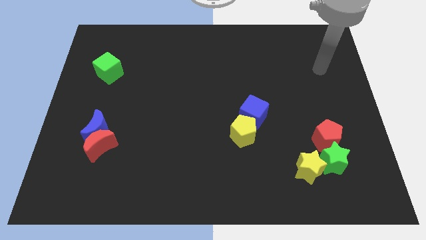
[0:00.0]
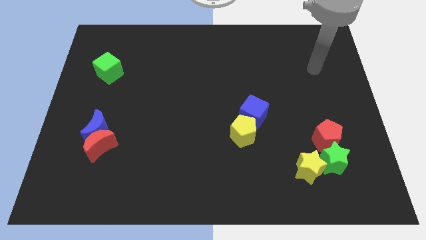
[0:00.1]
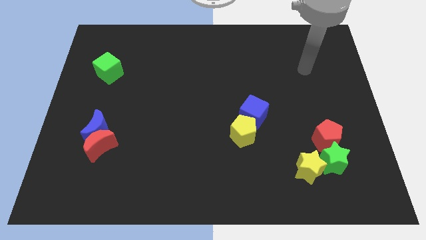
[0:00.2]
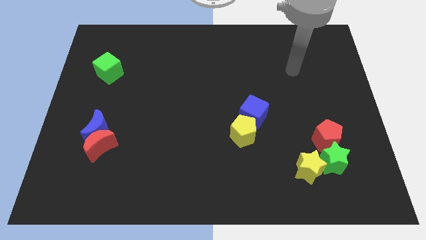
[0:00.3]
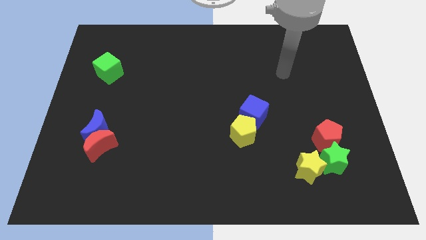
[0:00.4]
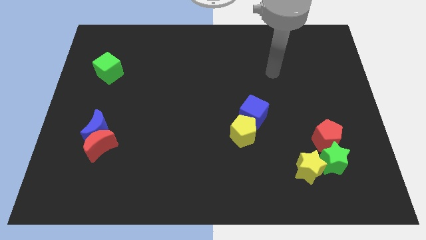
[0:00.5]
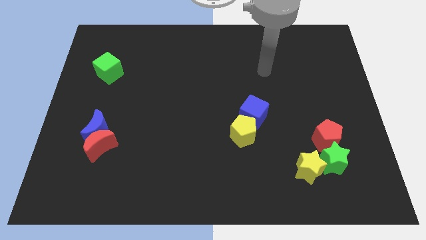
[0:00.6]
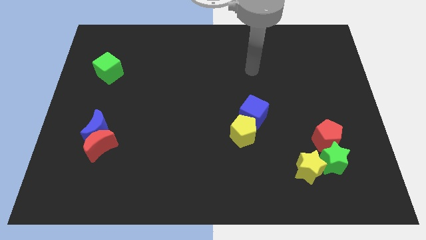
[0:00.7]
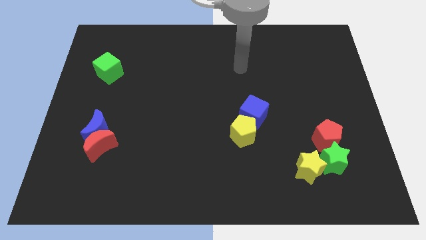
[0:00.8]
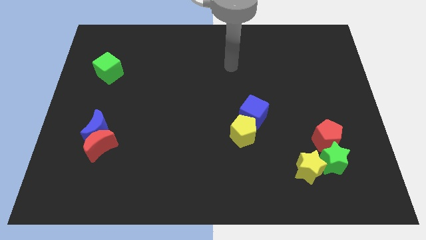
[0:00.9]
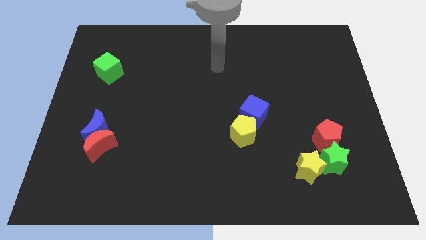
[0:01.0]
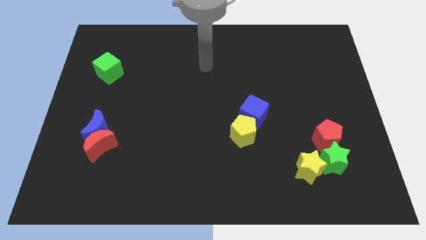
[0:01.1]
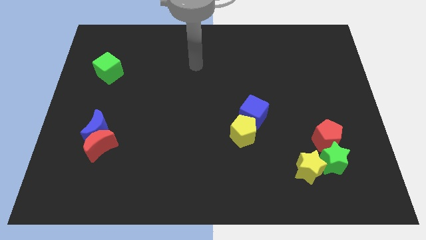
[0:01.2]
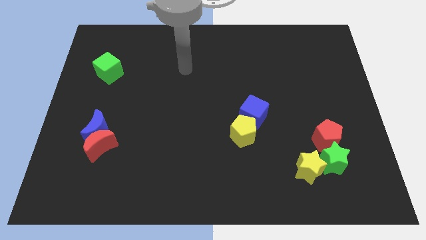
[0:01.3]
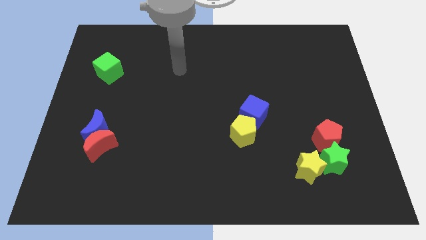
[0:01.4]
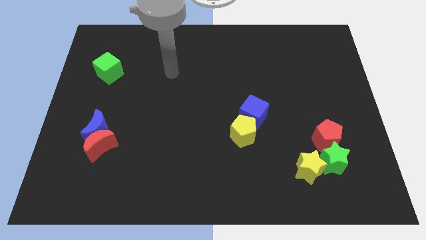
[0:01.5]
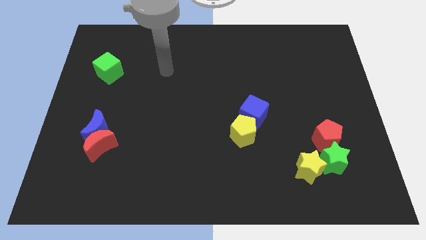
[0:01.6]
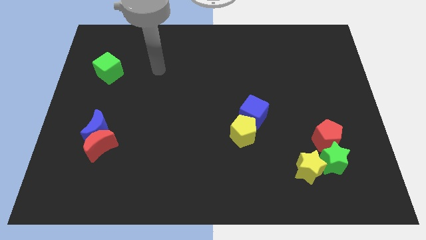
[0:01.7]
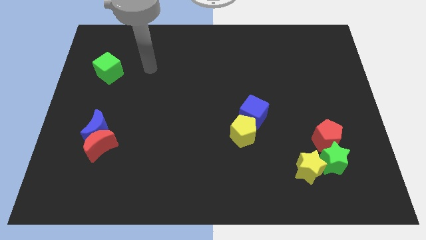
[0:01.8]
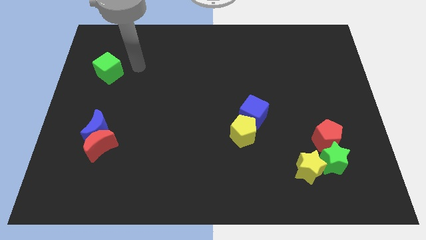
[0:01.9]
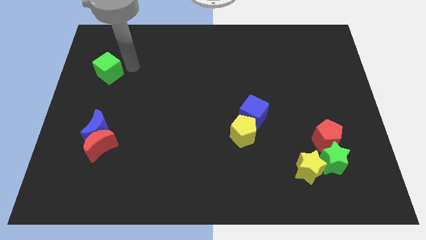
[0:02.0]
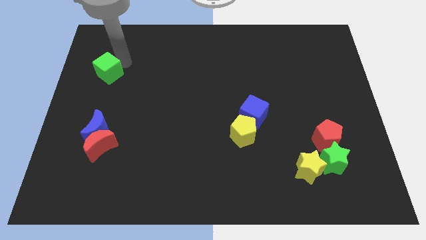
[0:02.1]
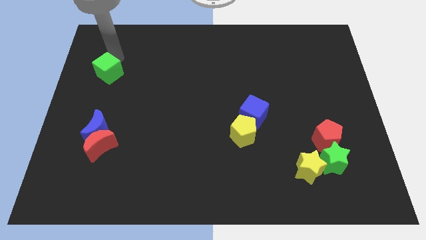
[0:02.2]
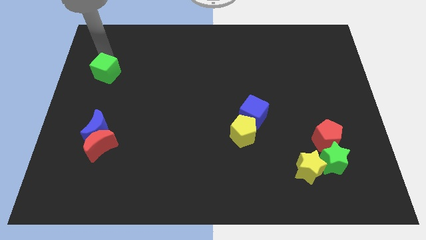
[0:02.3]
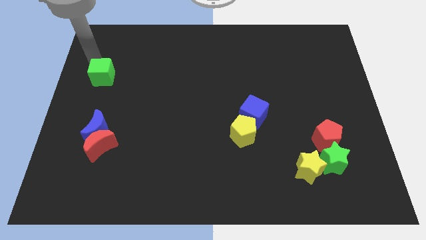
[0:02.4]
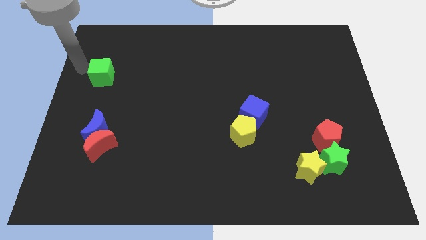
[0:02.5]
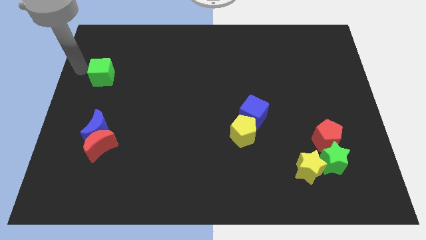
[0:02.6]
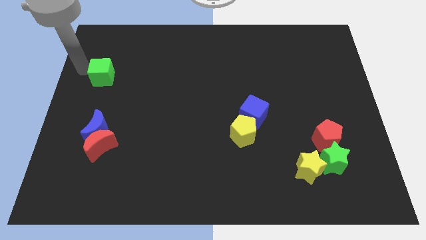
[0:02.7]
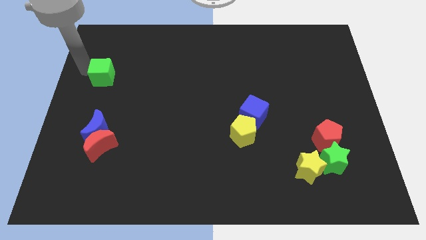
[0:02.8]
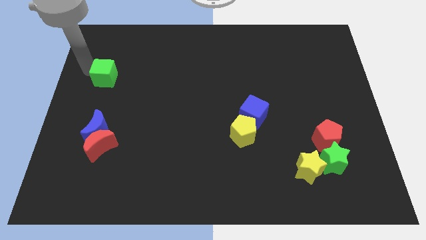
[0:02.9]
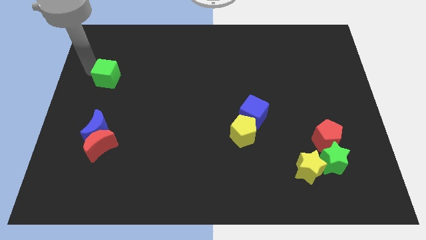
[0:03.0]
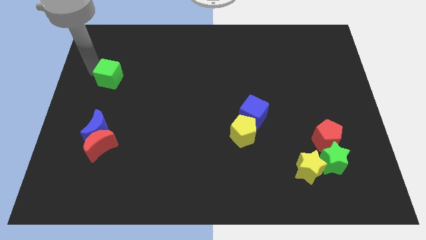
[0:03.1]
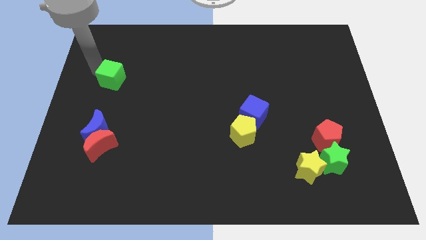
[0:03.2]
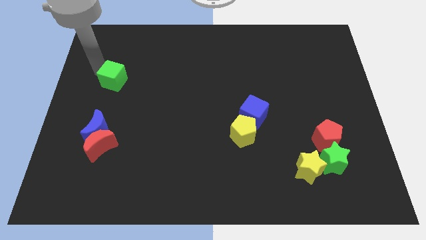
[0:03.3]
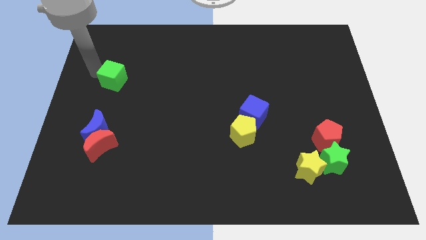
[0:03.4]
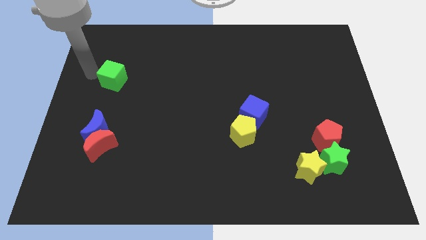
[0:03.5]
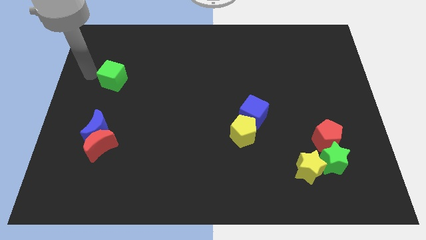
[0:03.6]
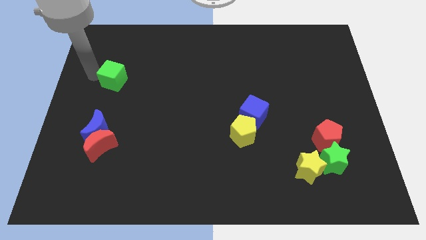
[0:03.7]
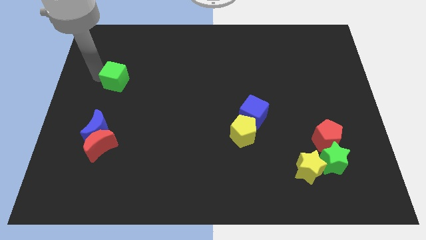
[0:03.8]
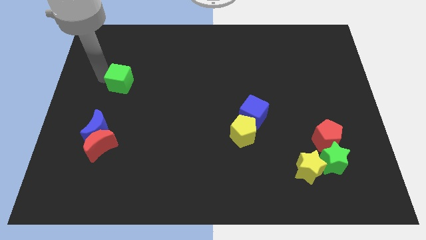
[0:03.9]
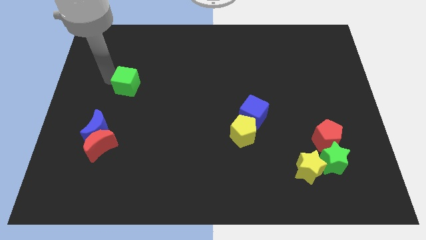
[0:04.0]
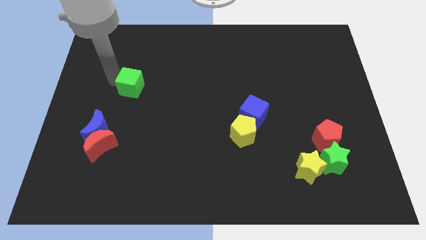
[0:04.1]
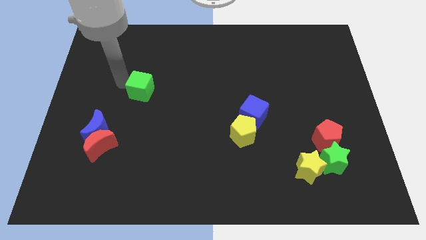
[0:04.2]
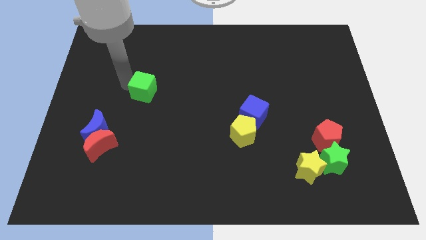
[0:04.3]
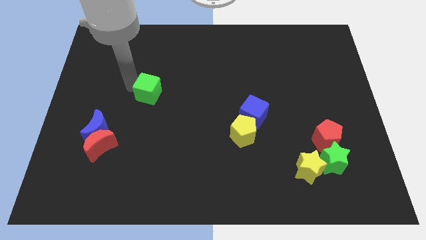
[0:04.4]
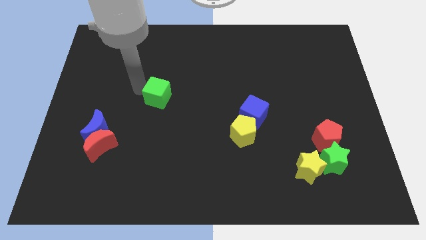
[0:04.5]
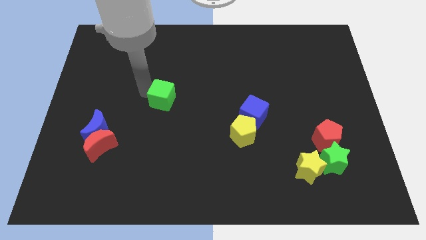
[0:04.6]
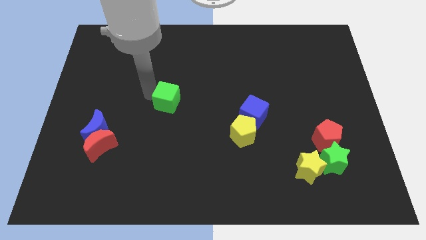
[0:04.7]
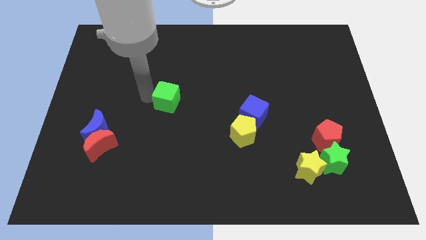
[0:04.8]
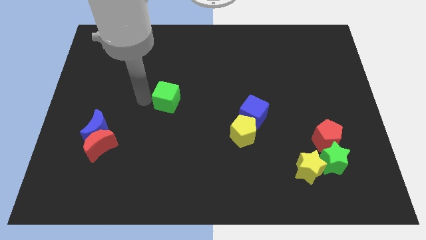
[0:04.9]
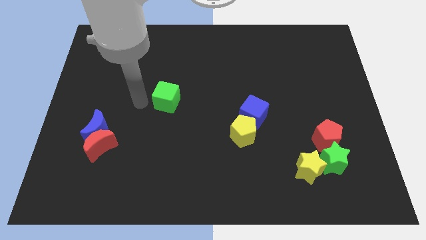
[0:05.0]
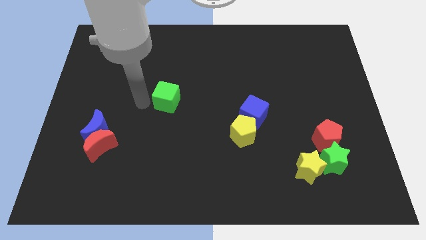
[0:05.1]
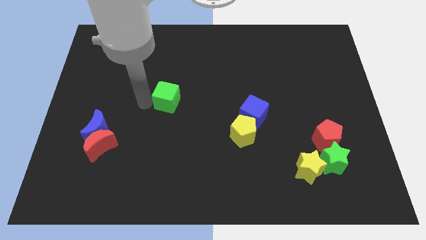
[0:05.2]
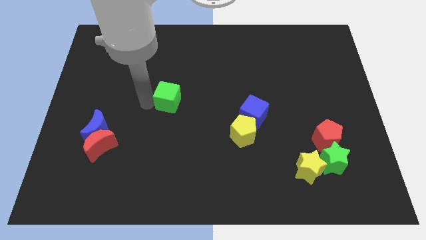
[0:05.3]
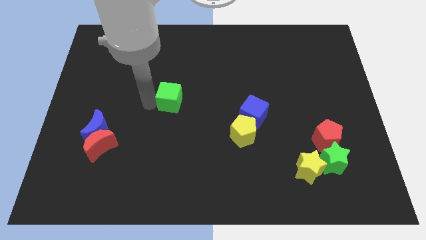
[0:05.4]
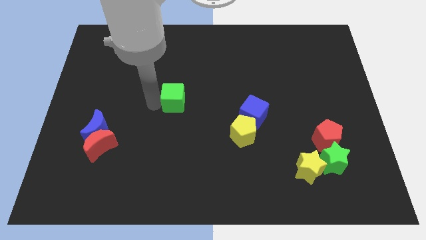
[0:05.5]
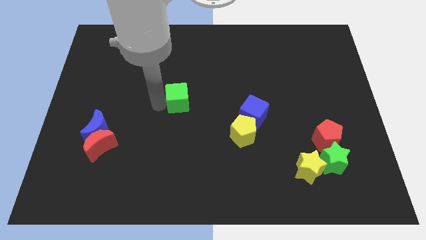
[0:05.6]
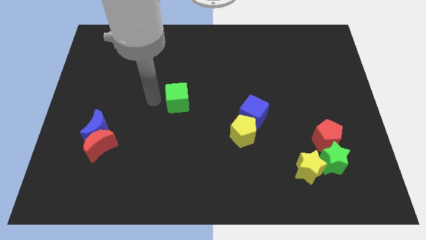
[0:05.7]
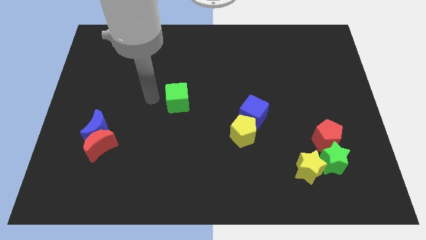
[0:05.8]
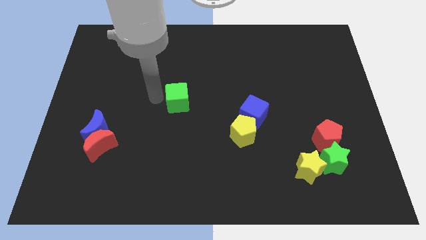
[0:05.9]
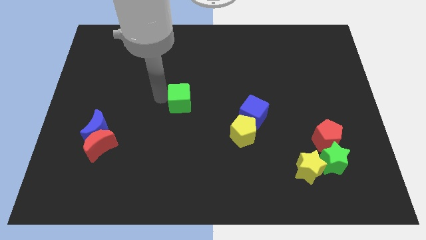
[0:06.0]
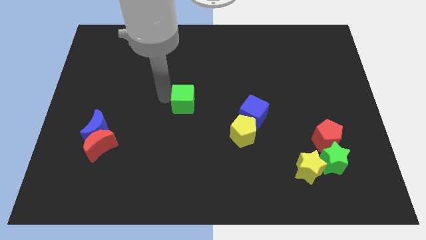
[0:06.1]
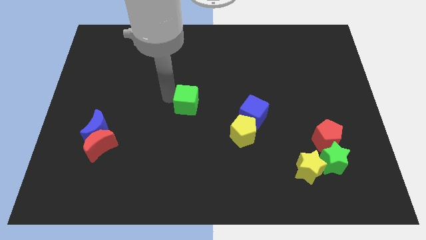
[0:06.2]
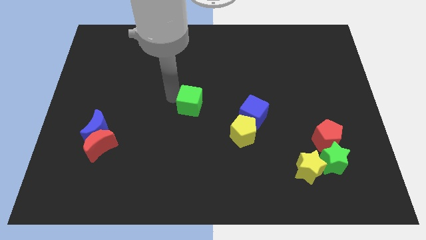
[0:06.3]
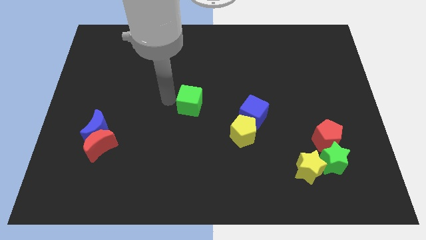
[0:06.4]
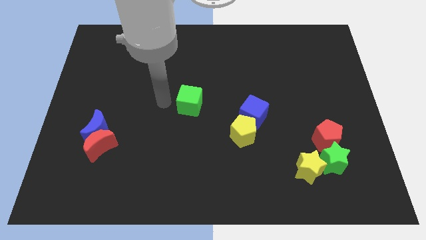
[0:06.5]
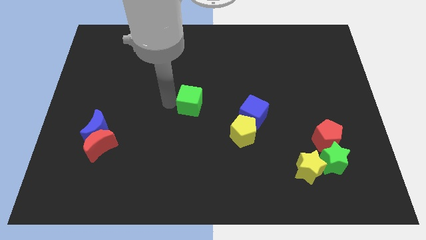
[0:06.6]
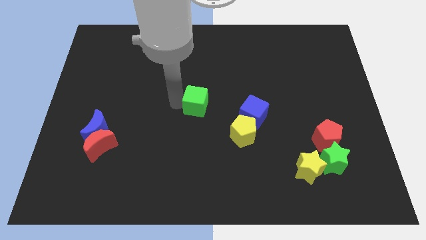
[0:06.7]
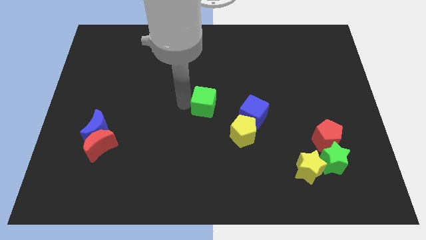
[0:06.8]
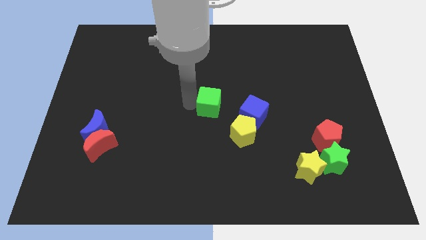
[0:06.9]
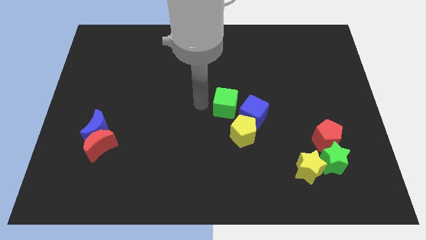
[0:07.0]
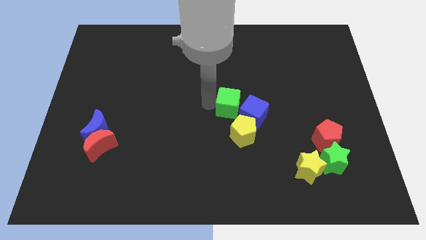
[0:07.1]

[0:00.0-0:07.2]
push the green cube to the blue cube
